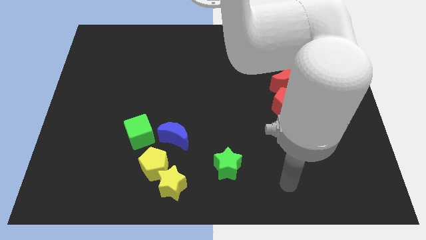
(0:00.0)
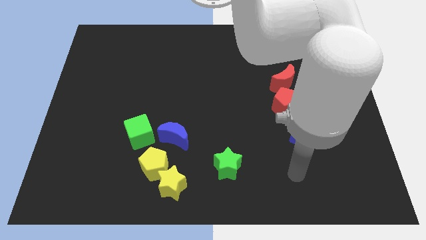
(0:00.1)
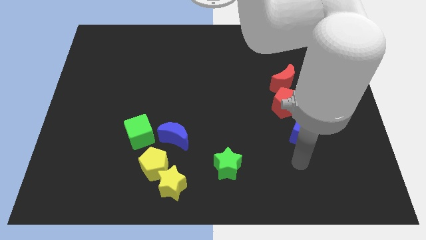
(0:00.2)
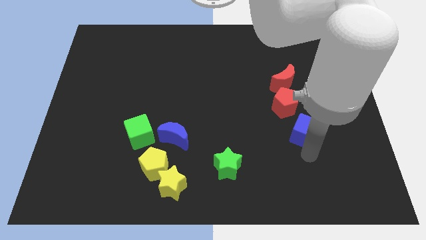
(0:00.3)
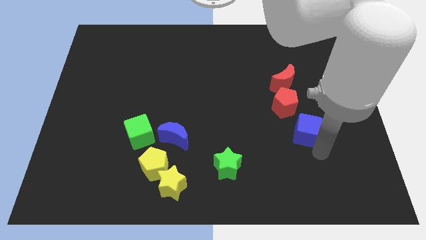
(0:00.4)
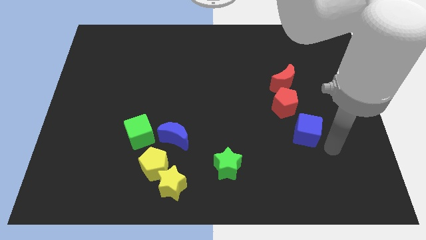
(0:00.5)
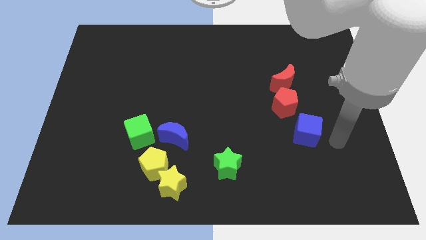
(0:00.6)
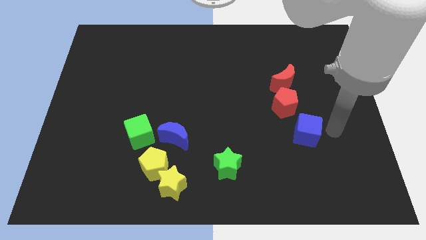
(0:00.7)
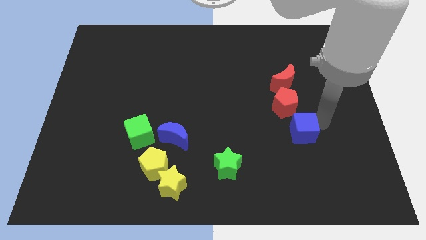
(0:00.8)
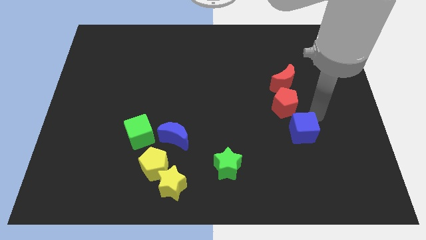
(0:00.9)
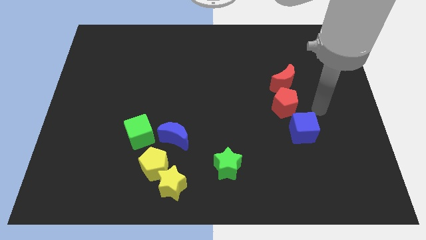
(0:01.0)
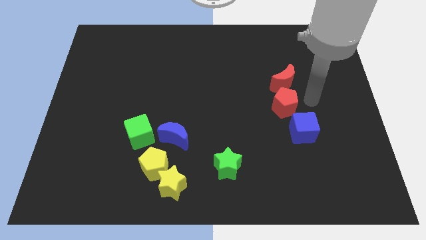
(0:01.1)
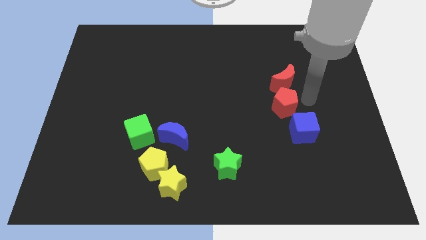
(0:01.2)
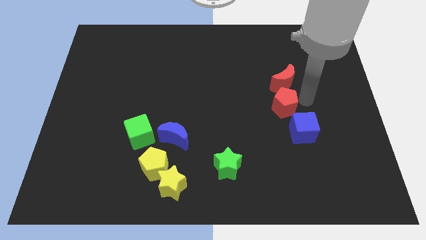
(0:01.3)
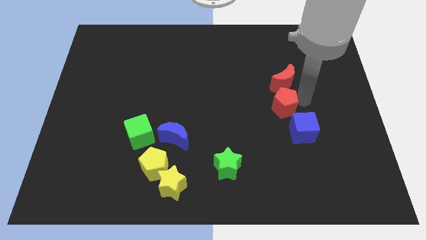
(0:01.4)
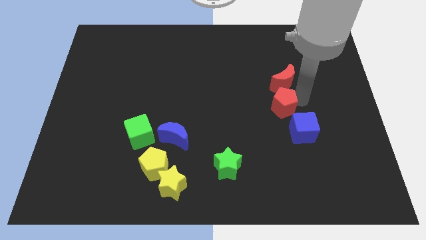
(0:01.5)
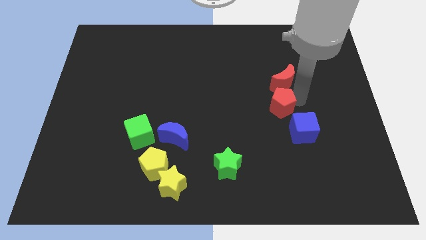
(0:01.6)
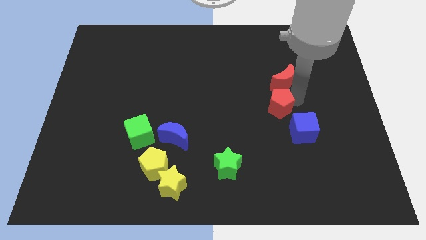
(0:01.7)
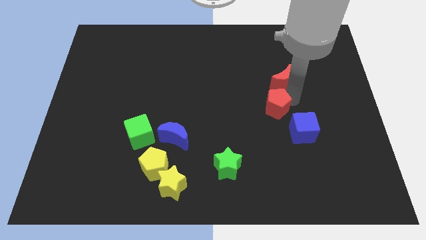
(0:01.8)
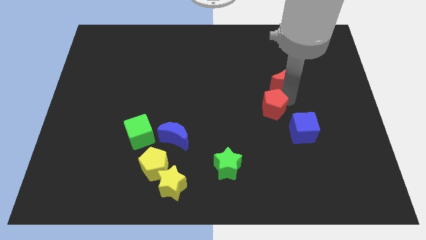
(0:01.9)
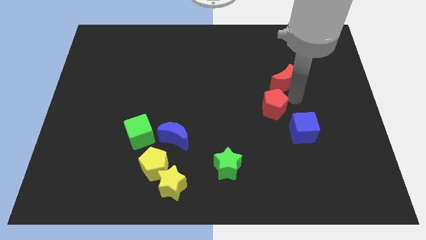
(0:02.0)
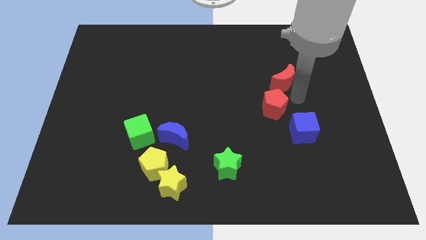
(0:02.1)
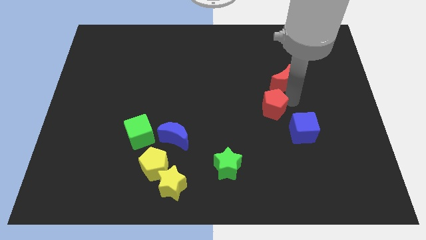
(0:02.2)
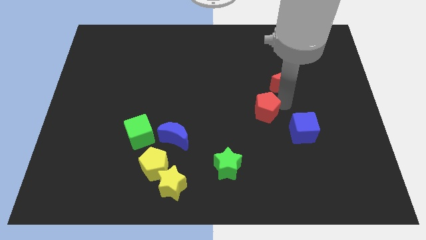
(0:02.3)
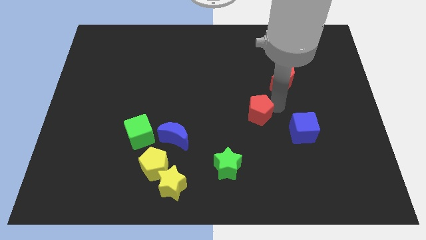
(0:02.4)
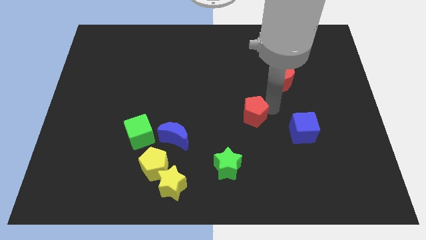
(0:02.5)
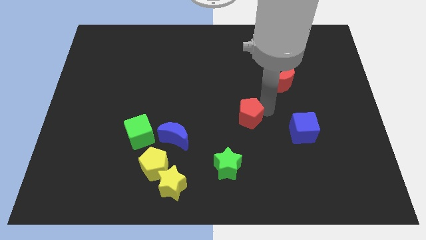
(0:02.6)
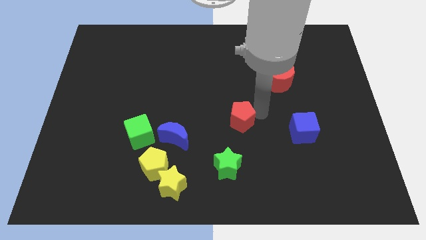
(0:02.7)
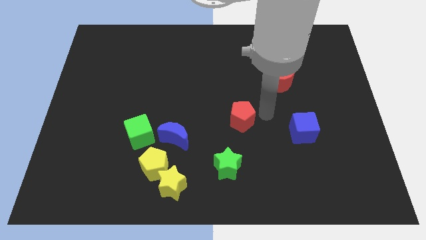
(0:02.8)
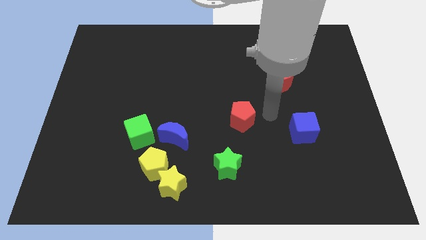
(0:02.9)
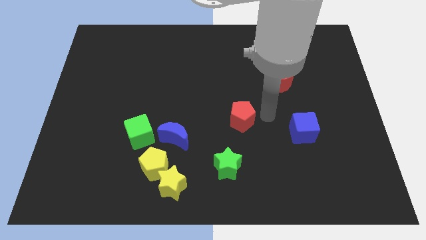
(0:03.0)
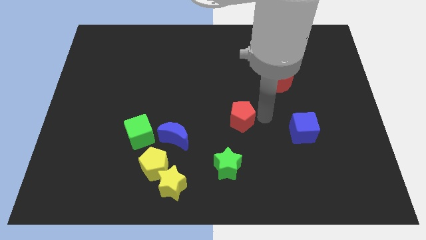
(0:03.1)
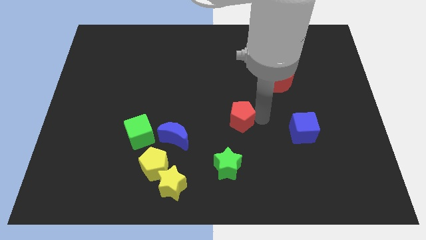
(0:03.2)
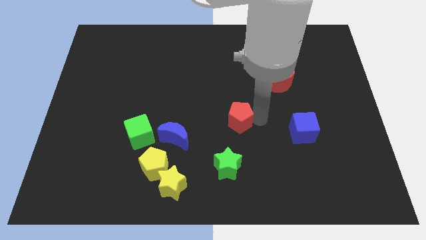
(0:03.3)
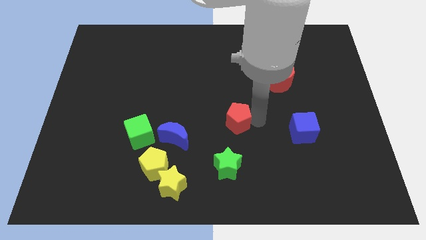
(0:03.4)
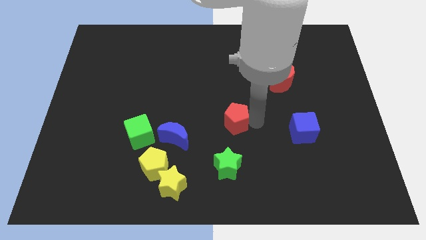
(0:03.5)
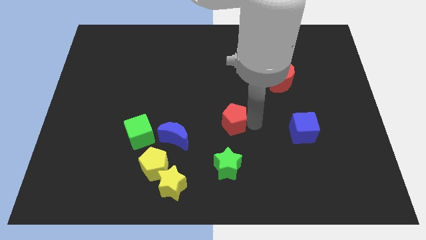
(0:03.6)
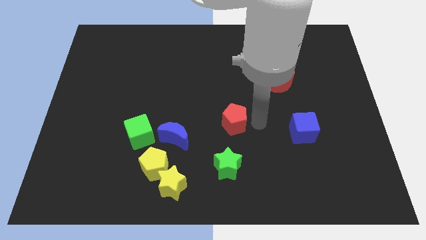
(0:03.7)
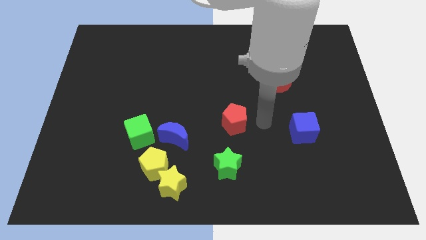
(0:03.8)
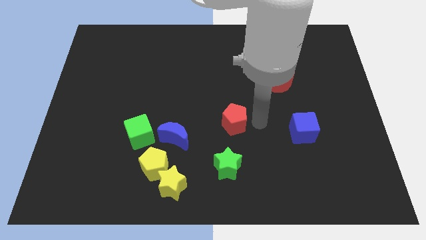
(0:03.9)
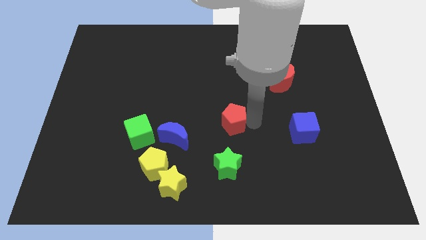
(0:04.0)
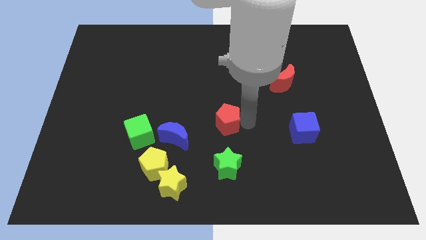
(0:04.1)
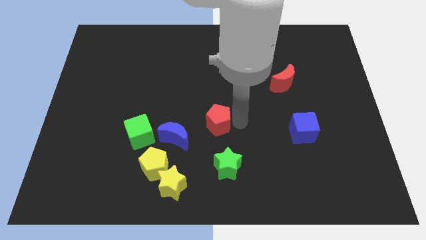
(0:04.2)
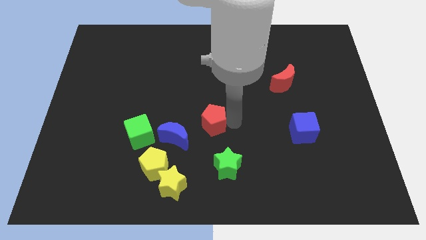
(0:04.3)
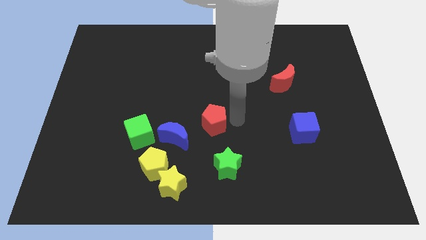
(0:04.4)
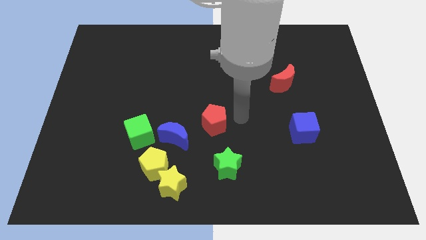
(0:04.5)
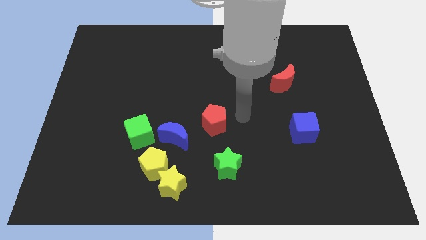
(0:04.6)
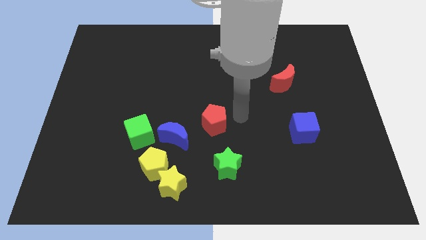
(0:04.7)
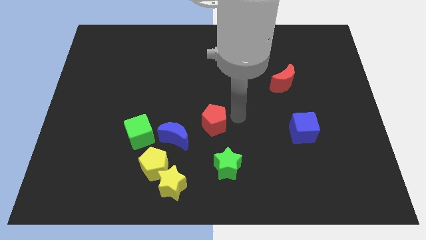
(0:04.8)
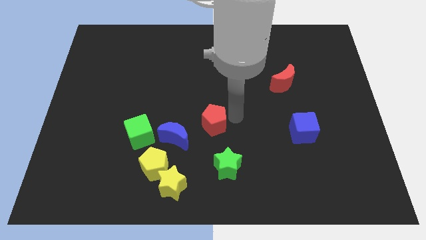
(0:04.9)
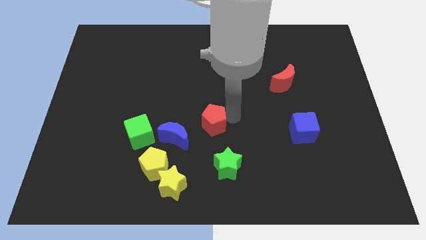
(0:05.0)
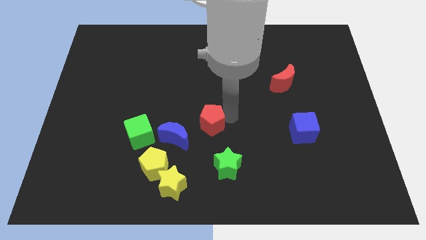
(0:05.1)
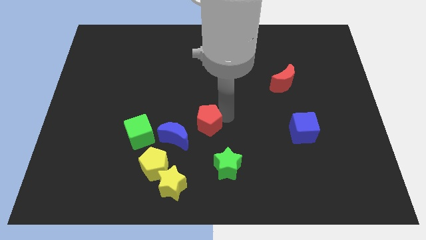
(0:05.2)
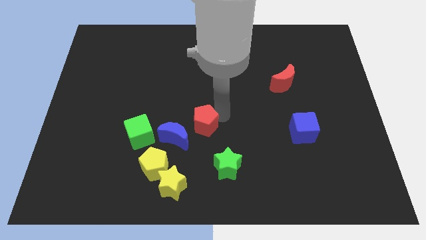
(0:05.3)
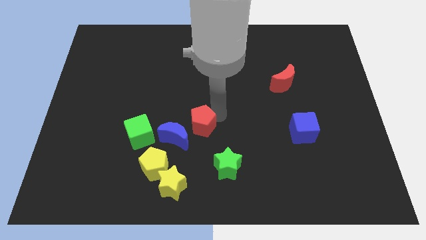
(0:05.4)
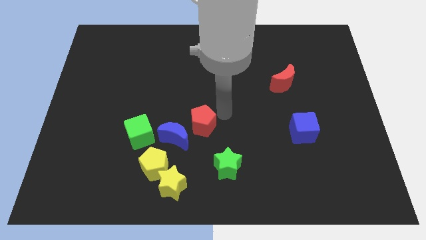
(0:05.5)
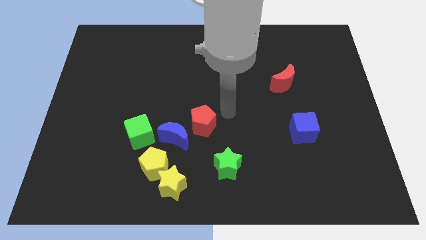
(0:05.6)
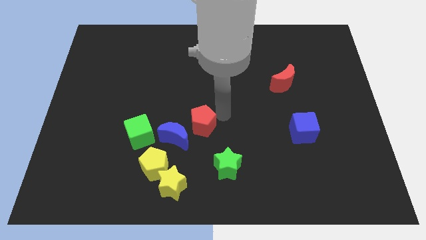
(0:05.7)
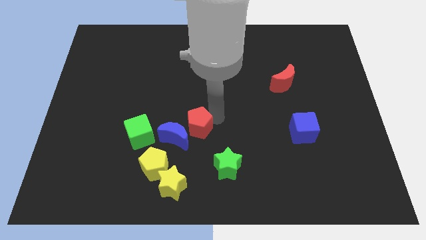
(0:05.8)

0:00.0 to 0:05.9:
slide the red pentagon close to the blue moon

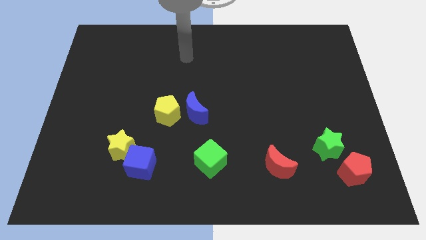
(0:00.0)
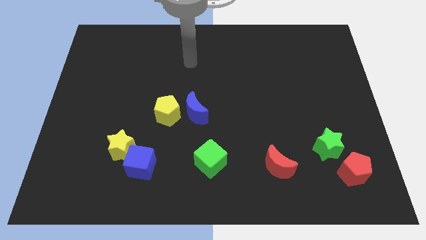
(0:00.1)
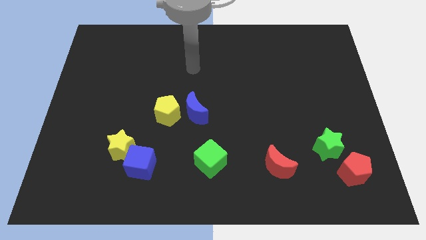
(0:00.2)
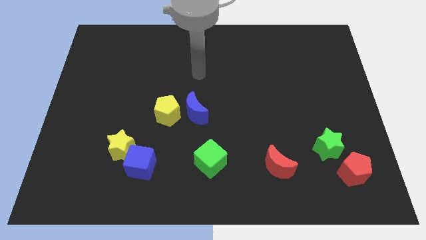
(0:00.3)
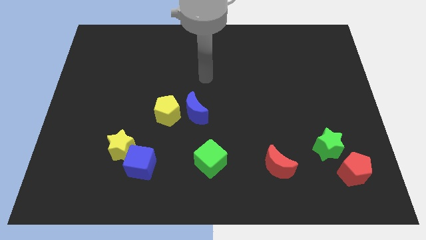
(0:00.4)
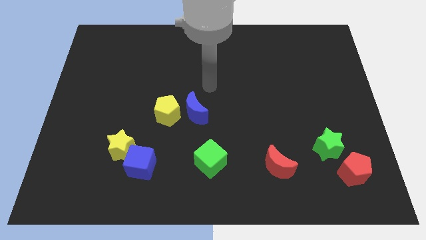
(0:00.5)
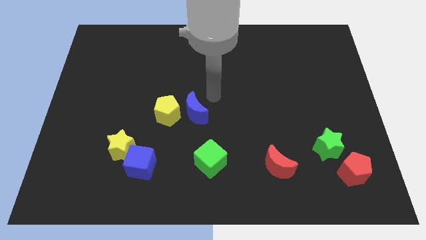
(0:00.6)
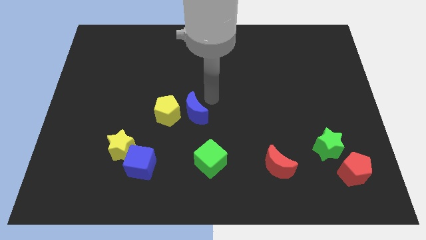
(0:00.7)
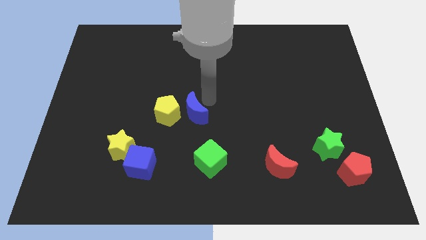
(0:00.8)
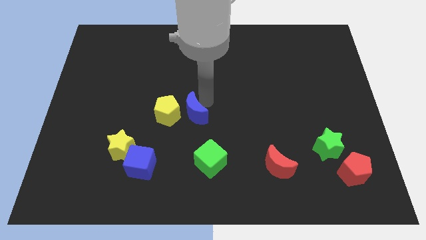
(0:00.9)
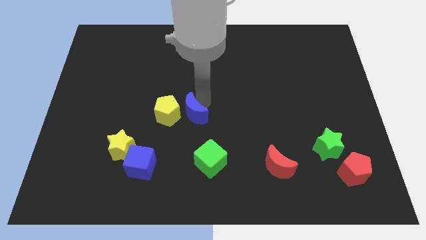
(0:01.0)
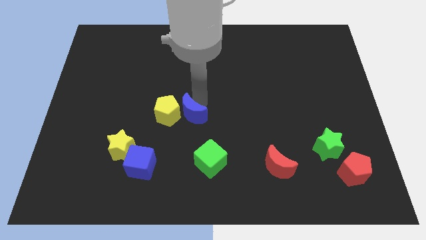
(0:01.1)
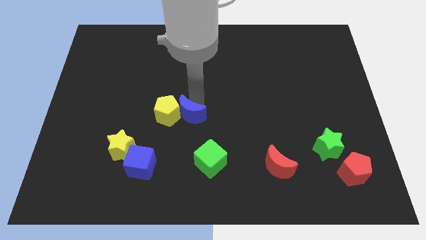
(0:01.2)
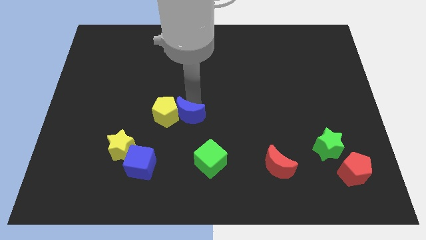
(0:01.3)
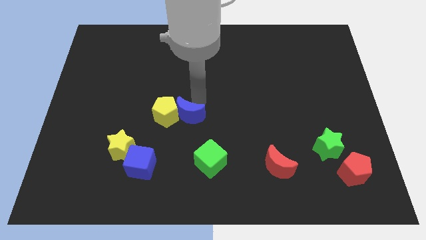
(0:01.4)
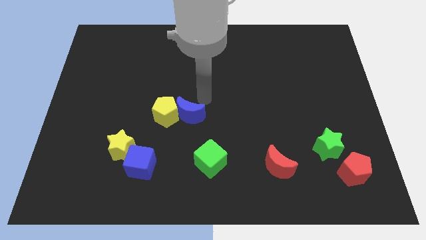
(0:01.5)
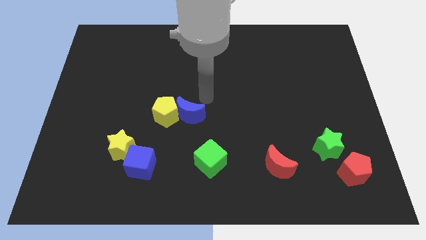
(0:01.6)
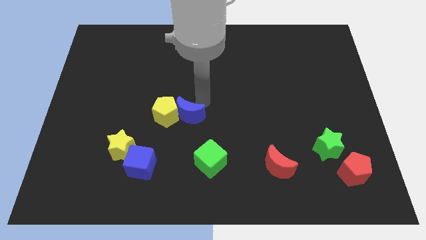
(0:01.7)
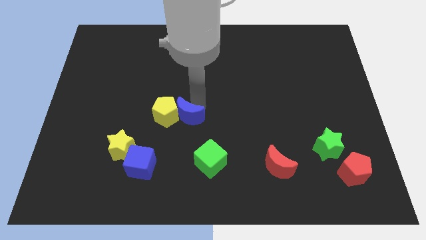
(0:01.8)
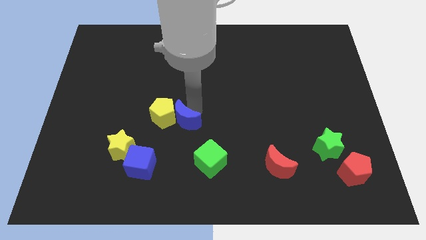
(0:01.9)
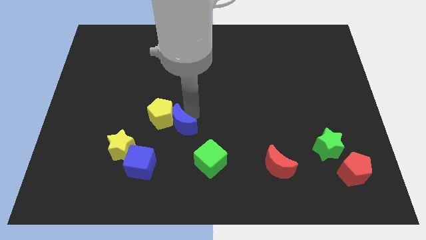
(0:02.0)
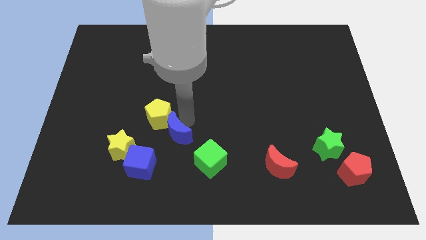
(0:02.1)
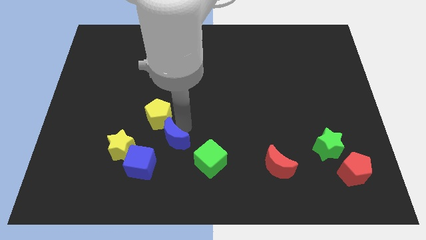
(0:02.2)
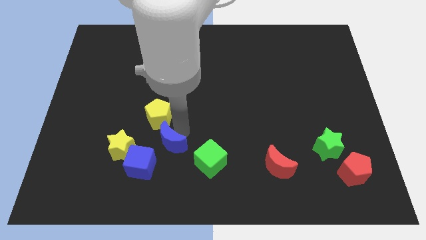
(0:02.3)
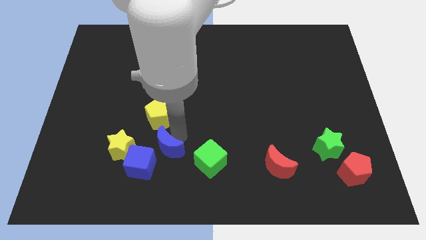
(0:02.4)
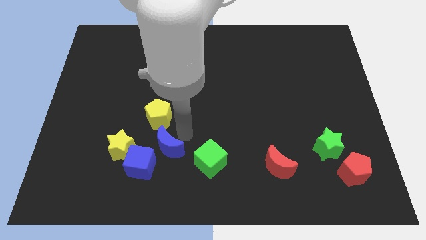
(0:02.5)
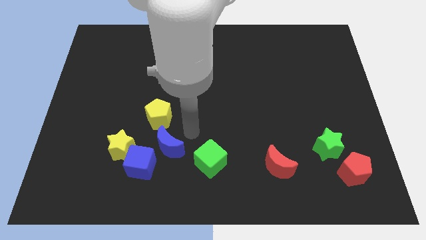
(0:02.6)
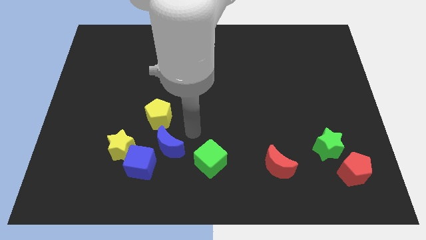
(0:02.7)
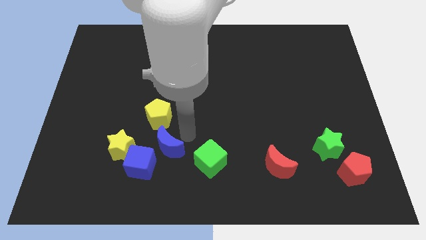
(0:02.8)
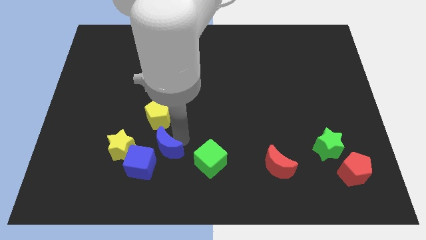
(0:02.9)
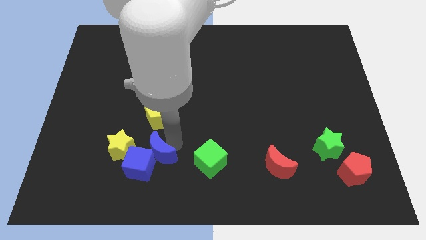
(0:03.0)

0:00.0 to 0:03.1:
push the blue moon to the blue cube
